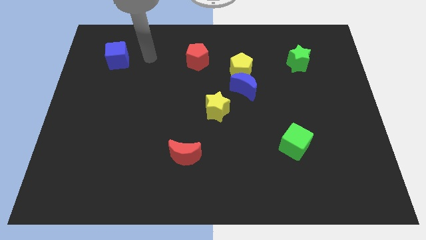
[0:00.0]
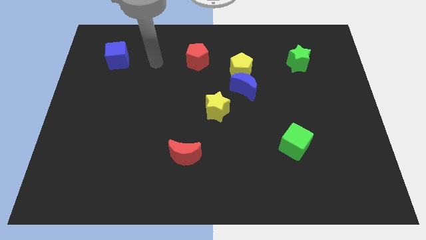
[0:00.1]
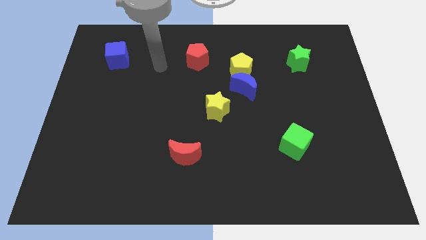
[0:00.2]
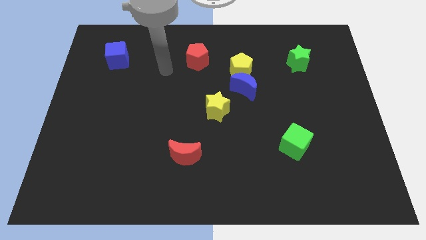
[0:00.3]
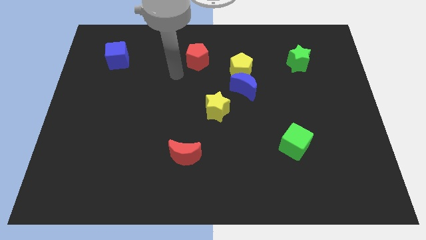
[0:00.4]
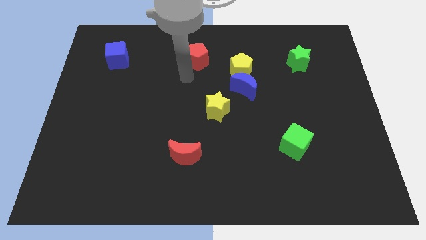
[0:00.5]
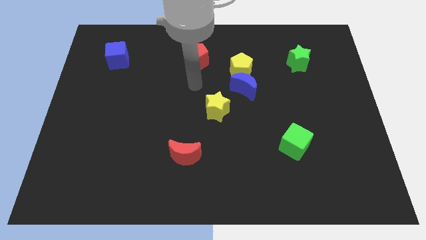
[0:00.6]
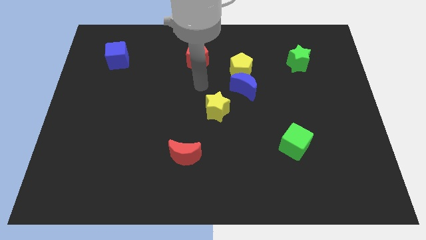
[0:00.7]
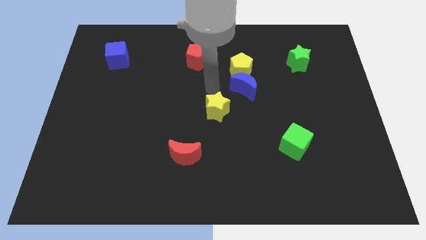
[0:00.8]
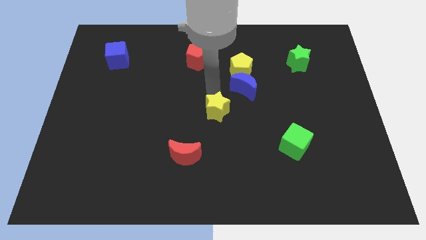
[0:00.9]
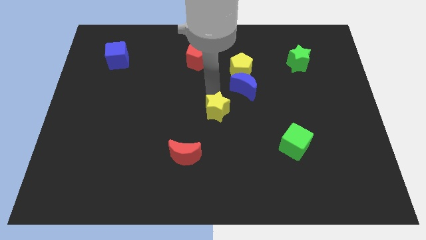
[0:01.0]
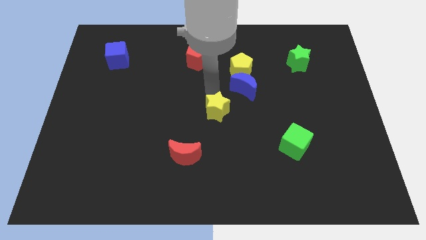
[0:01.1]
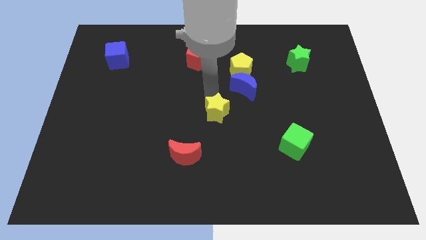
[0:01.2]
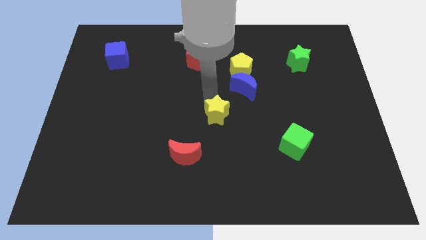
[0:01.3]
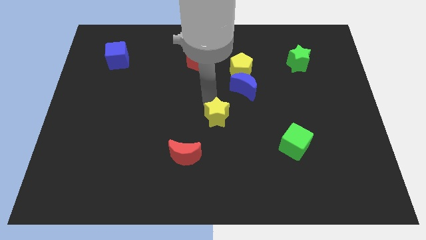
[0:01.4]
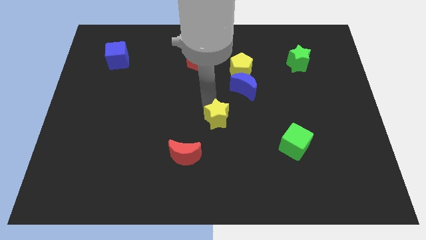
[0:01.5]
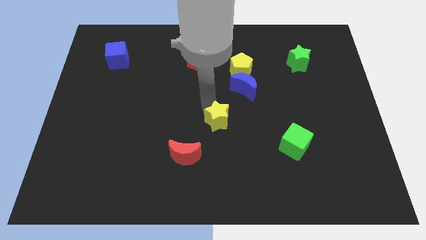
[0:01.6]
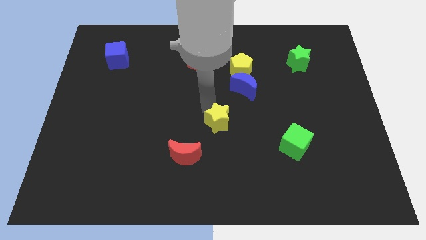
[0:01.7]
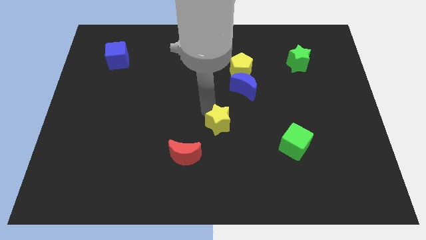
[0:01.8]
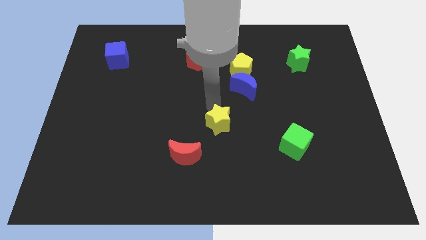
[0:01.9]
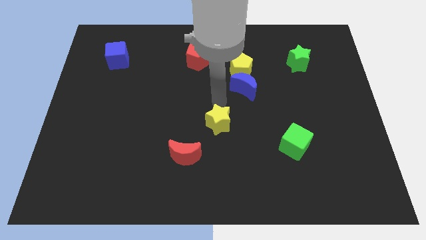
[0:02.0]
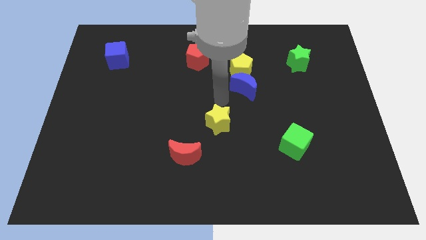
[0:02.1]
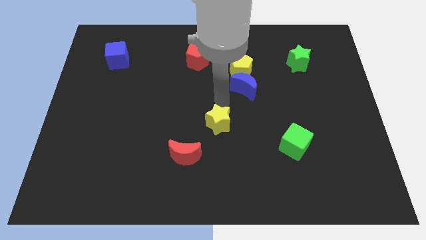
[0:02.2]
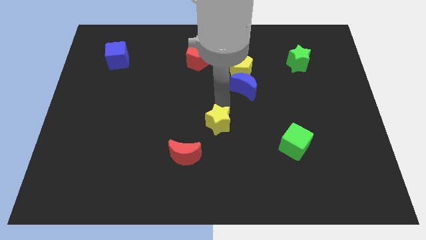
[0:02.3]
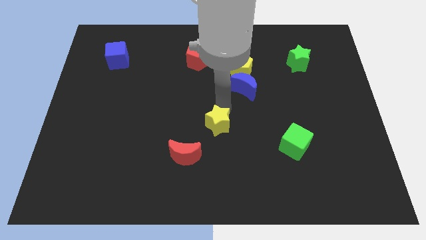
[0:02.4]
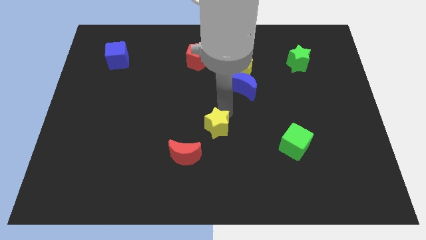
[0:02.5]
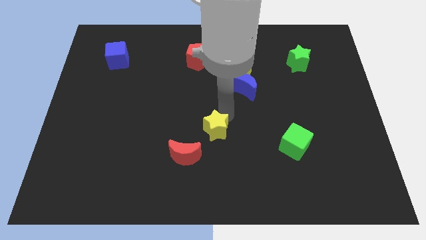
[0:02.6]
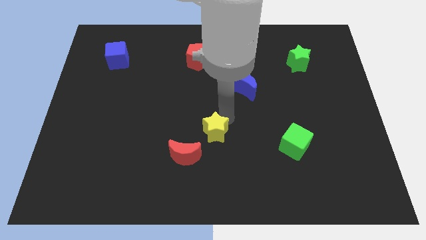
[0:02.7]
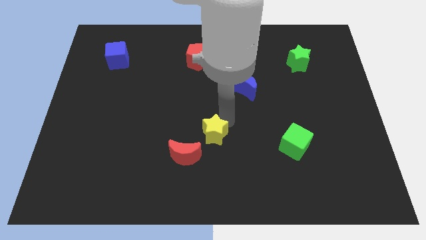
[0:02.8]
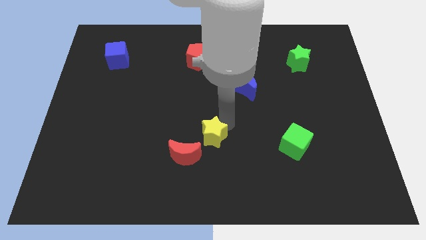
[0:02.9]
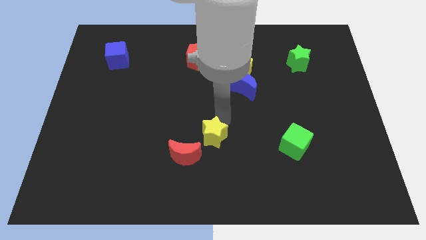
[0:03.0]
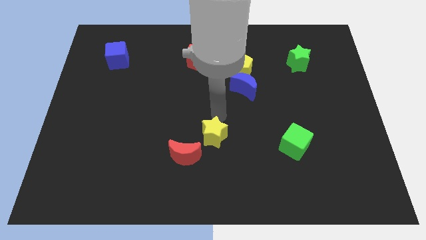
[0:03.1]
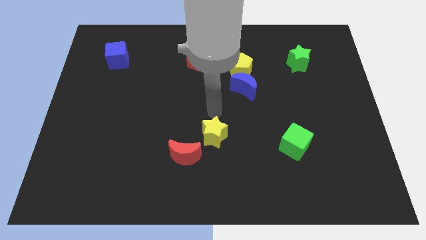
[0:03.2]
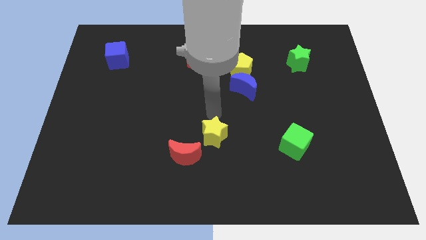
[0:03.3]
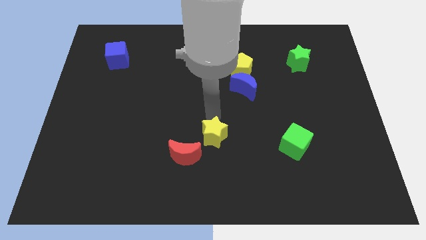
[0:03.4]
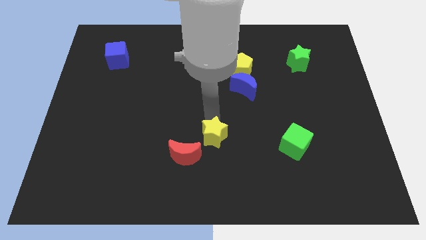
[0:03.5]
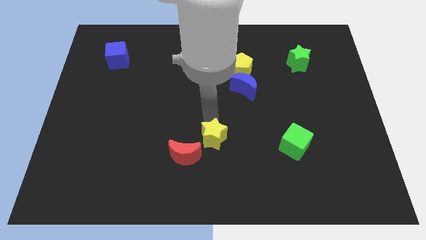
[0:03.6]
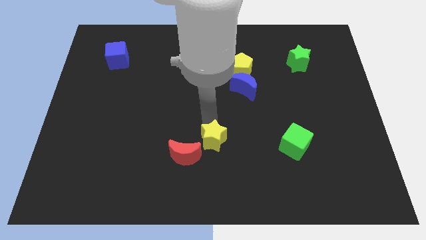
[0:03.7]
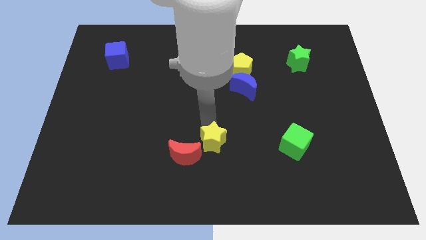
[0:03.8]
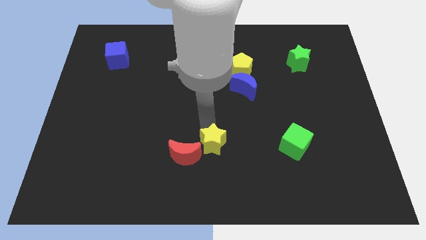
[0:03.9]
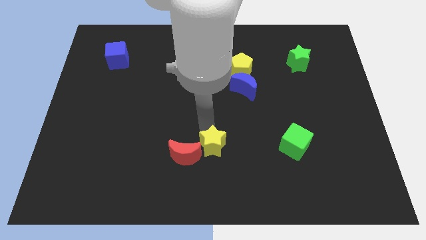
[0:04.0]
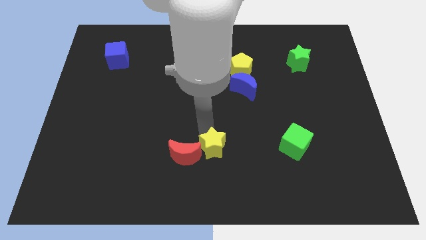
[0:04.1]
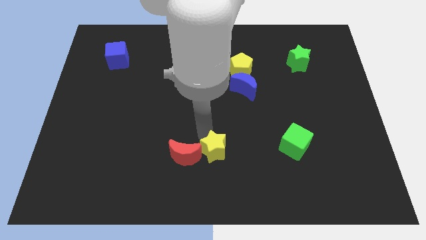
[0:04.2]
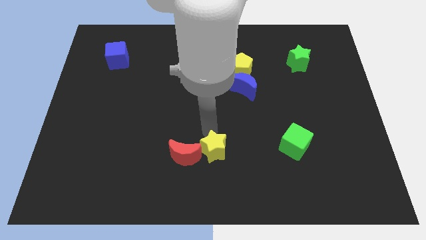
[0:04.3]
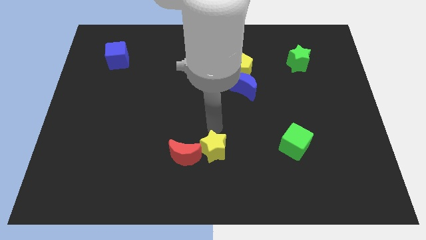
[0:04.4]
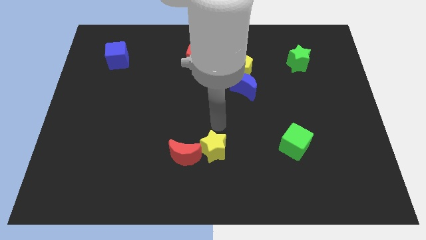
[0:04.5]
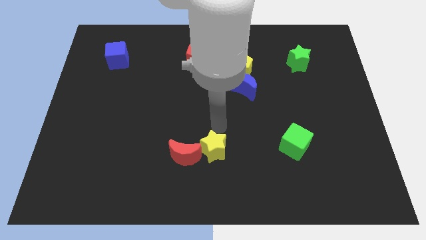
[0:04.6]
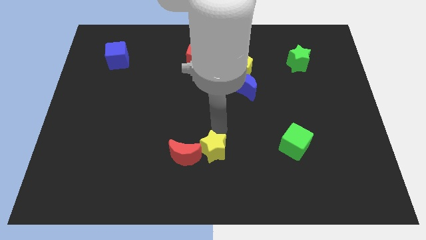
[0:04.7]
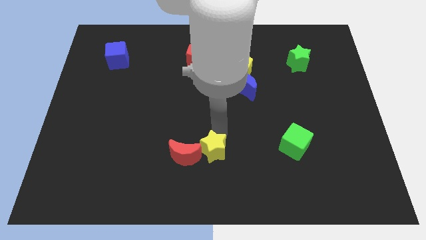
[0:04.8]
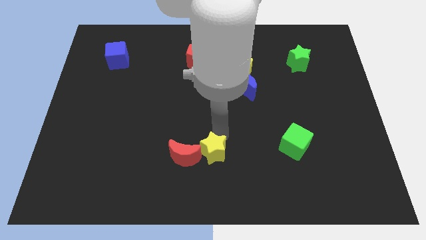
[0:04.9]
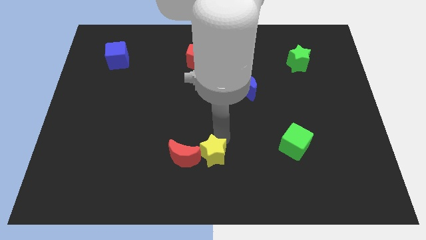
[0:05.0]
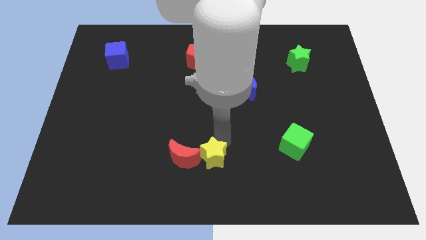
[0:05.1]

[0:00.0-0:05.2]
put the yellow star to the bottom right side of the red moon
